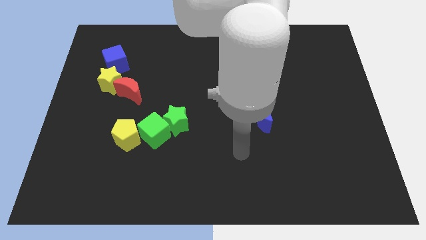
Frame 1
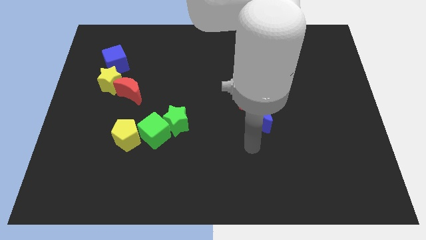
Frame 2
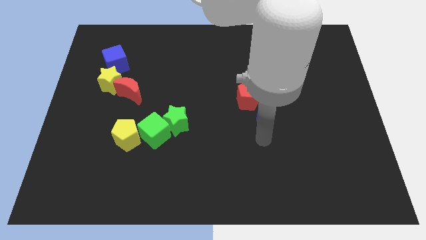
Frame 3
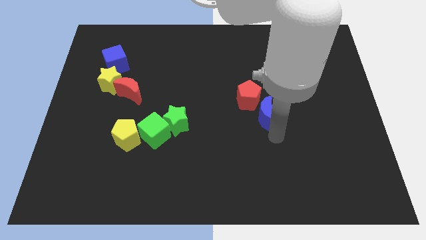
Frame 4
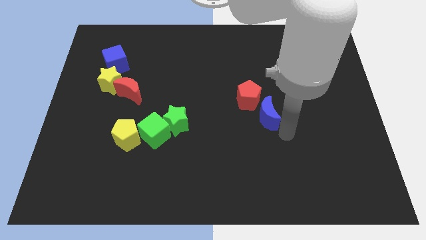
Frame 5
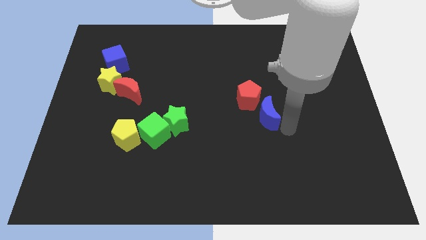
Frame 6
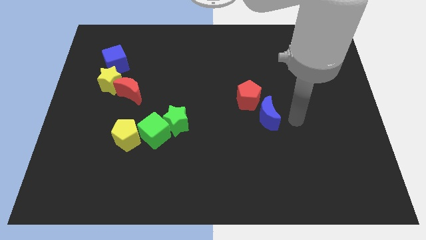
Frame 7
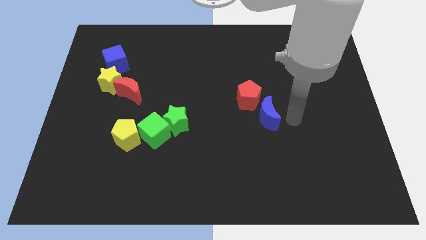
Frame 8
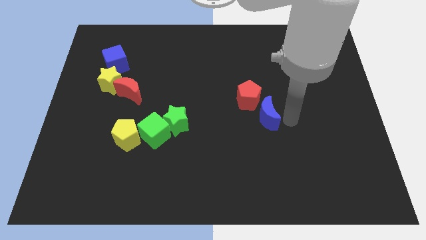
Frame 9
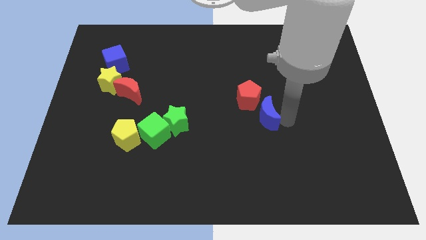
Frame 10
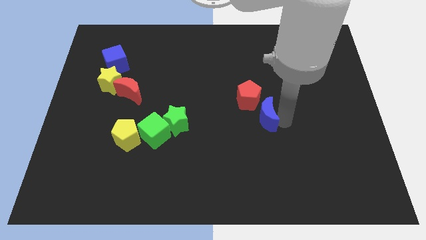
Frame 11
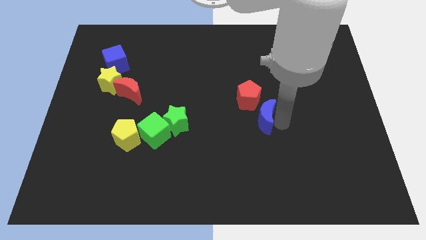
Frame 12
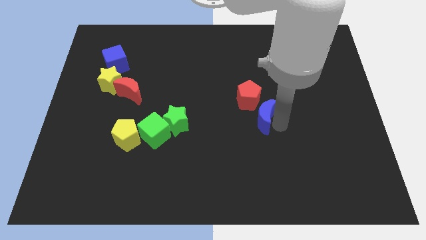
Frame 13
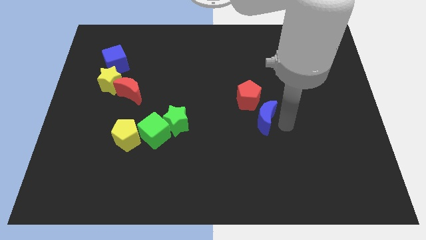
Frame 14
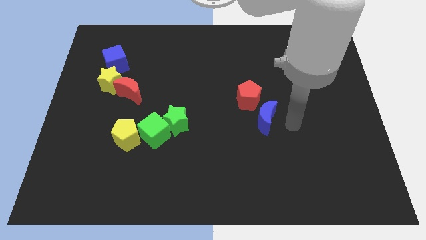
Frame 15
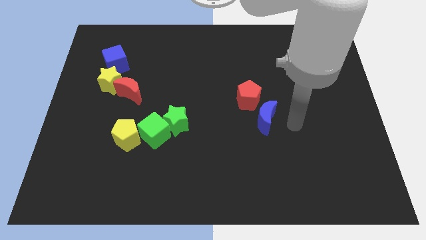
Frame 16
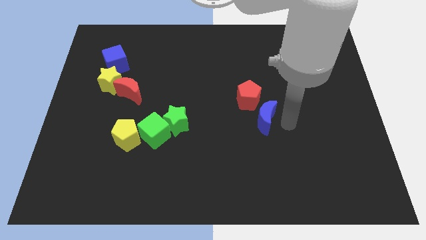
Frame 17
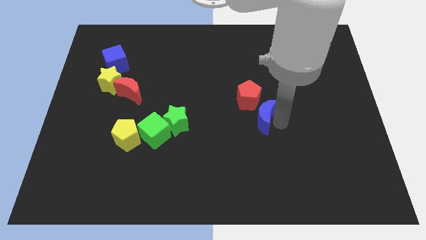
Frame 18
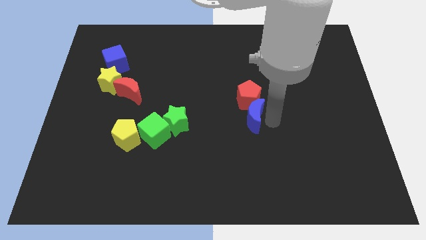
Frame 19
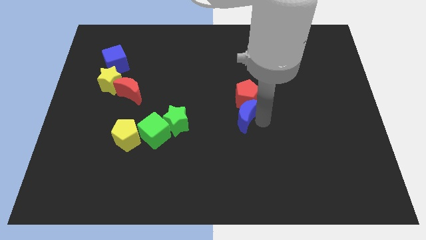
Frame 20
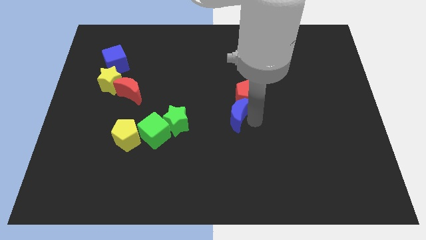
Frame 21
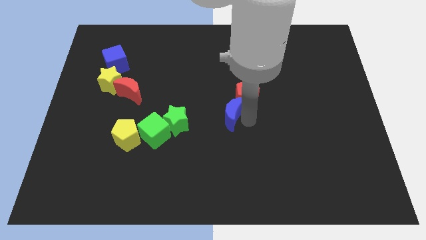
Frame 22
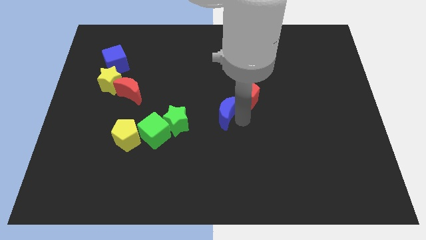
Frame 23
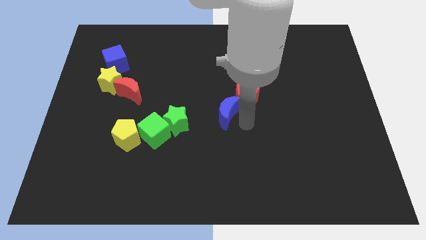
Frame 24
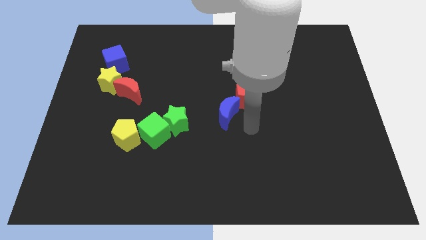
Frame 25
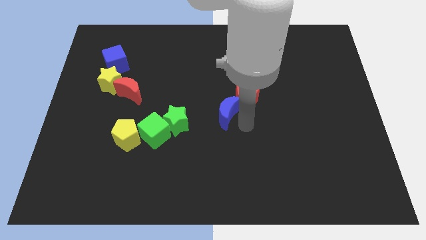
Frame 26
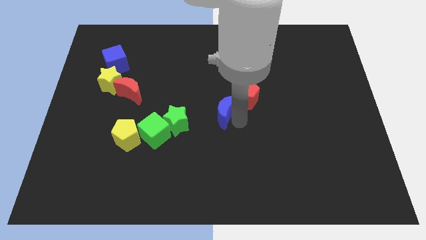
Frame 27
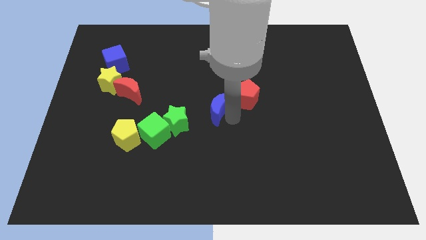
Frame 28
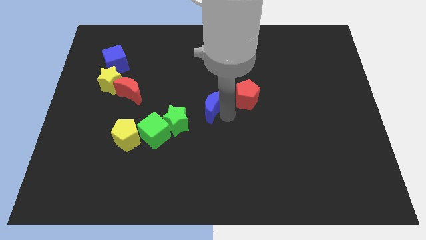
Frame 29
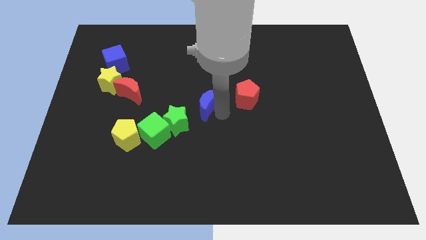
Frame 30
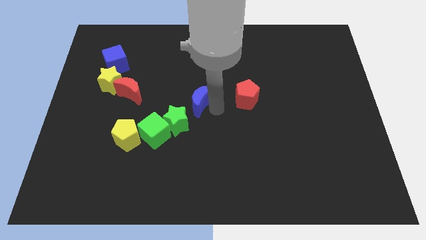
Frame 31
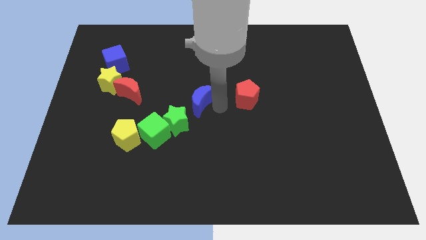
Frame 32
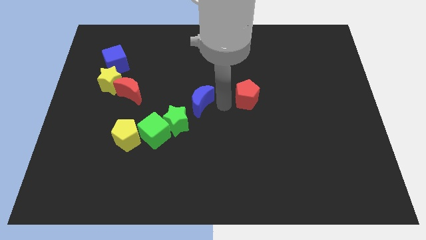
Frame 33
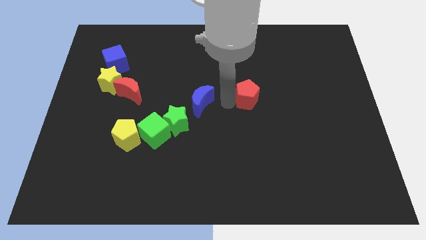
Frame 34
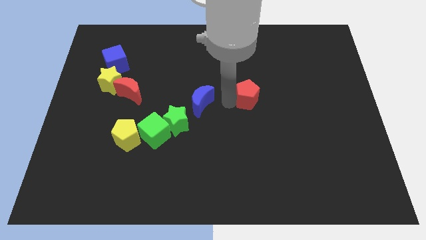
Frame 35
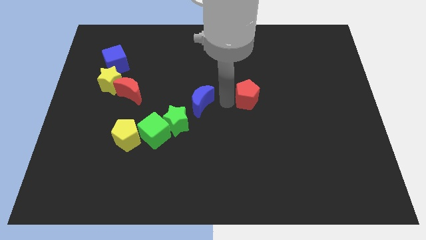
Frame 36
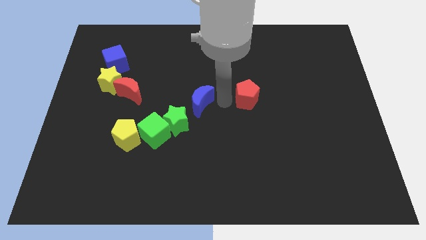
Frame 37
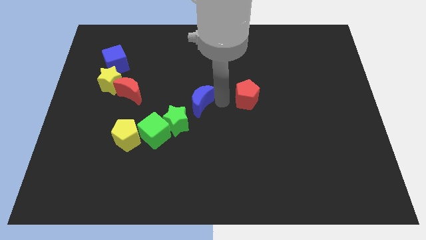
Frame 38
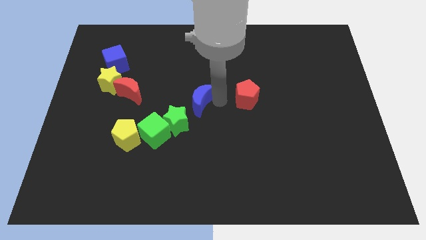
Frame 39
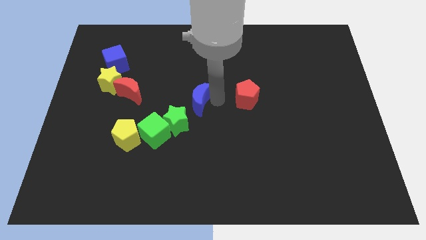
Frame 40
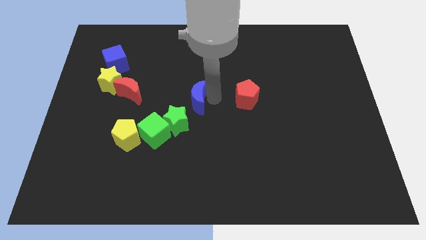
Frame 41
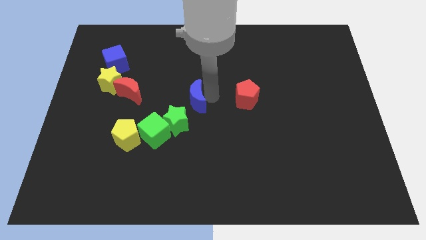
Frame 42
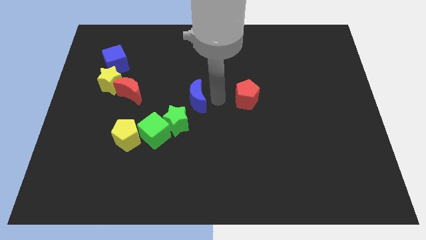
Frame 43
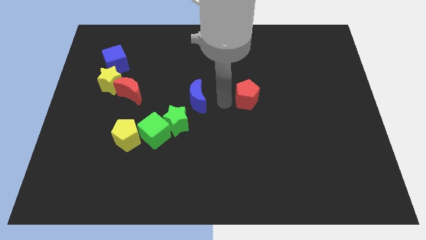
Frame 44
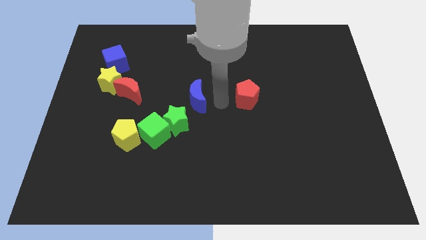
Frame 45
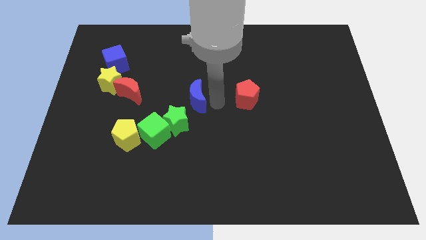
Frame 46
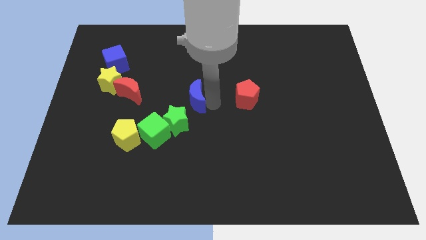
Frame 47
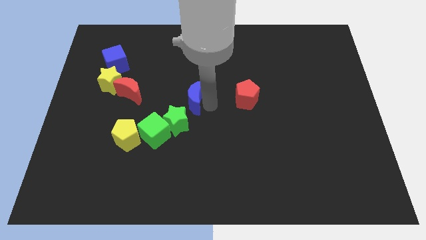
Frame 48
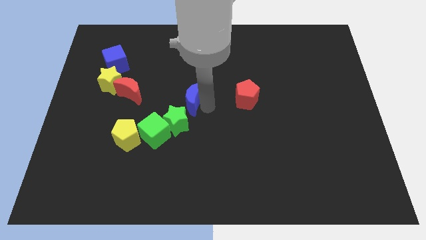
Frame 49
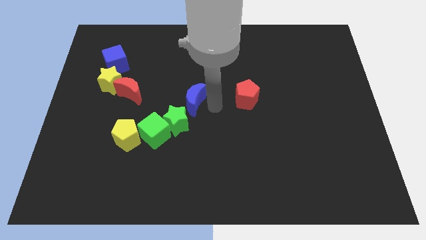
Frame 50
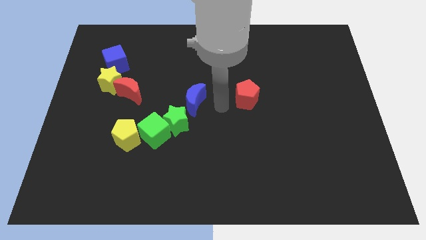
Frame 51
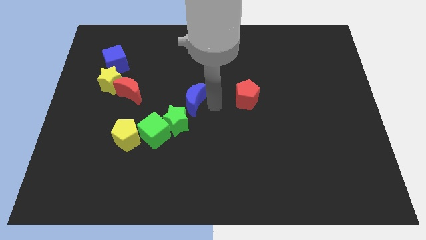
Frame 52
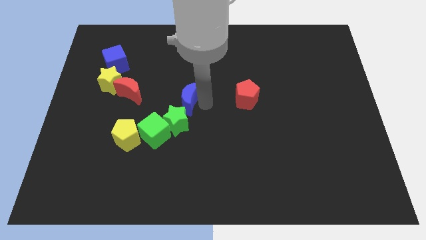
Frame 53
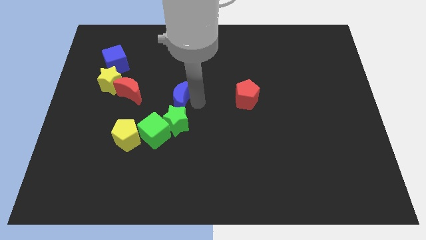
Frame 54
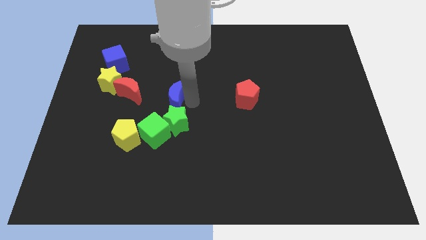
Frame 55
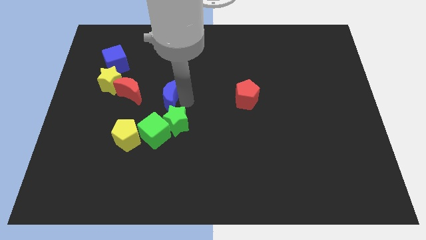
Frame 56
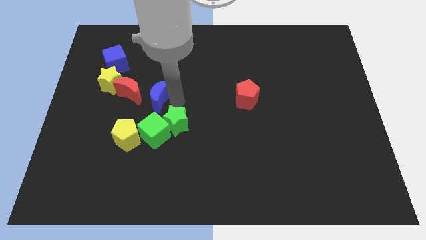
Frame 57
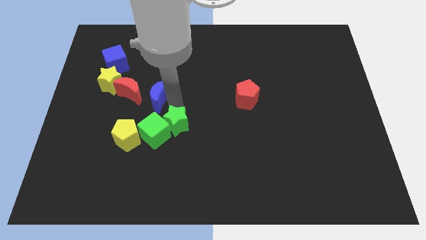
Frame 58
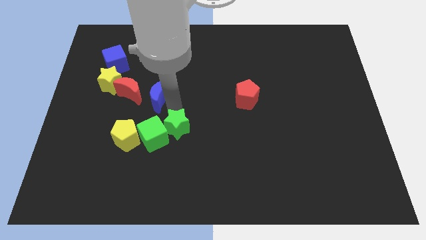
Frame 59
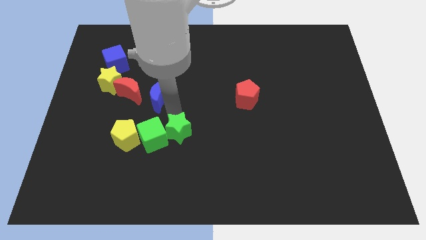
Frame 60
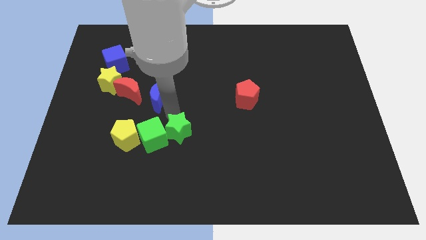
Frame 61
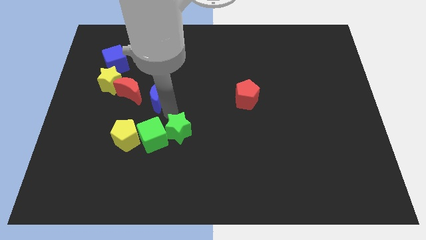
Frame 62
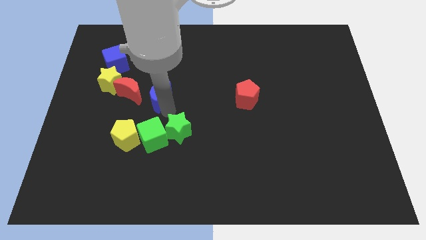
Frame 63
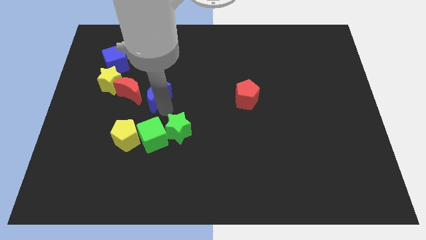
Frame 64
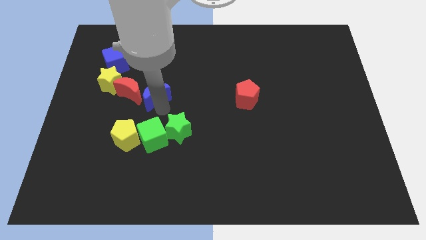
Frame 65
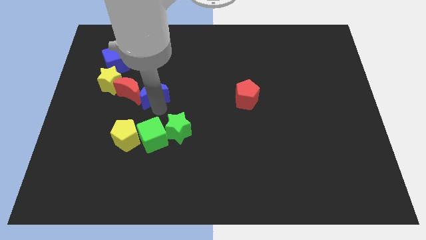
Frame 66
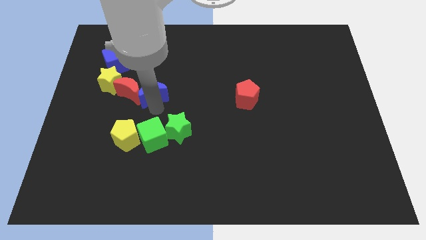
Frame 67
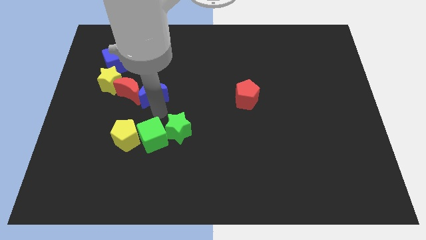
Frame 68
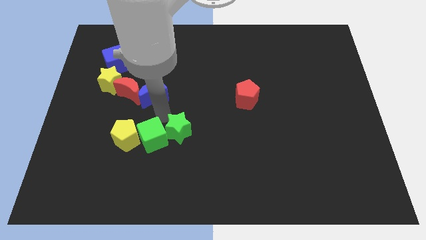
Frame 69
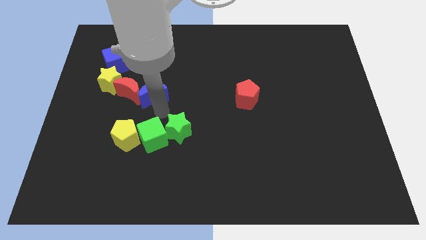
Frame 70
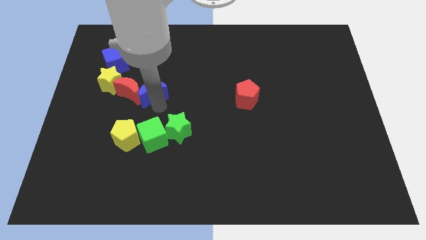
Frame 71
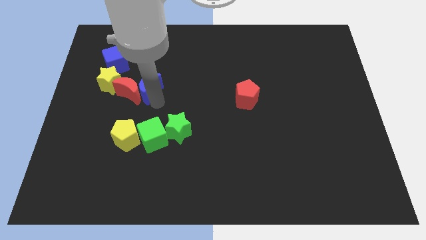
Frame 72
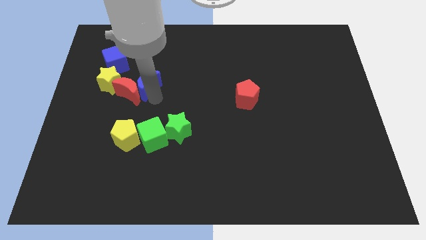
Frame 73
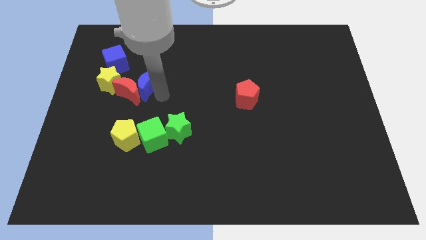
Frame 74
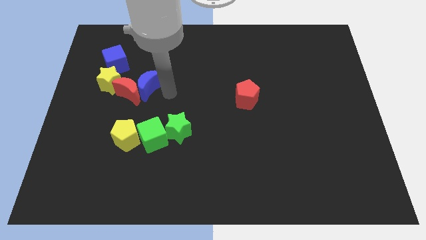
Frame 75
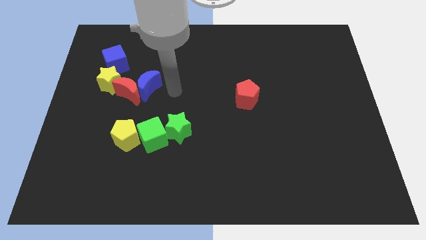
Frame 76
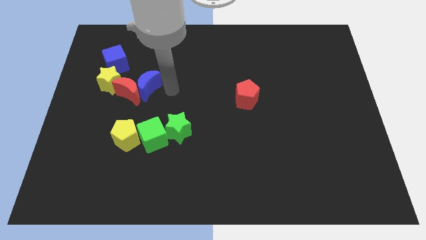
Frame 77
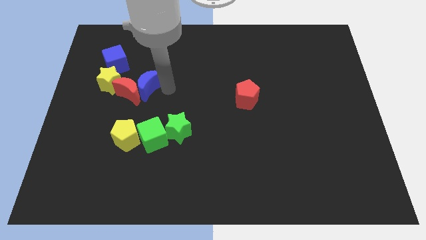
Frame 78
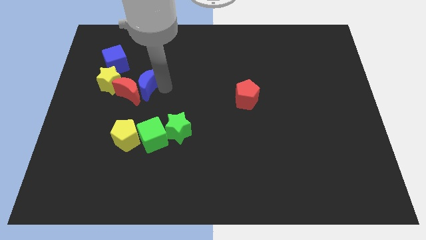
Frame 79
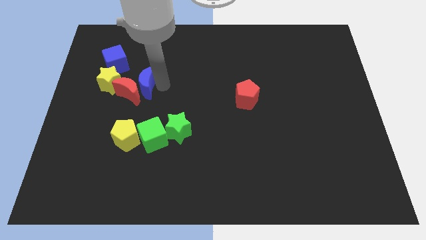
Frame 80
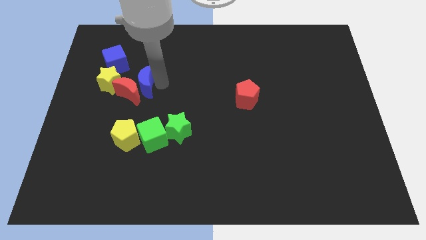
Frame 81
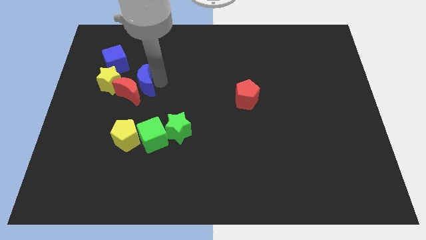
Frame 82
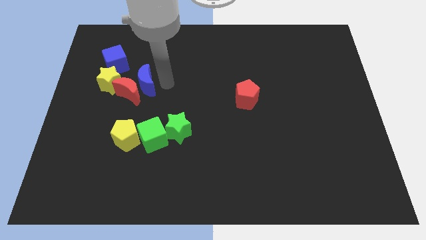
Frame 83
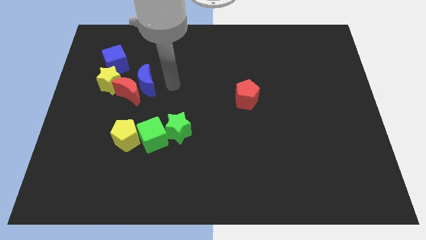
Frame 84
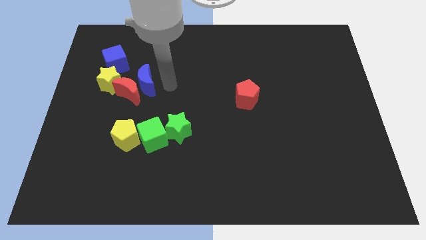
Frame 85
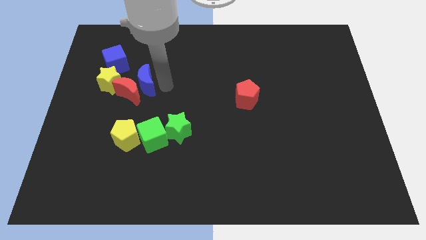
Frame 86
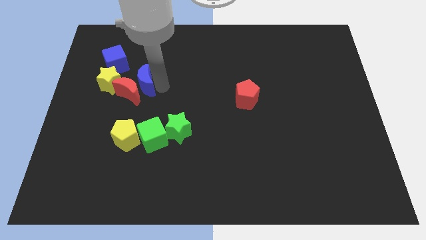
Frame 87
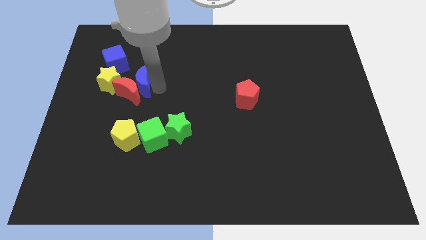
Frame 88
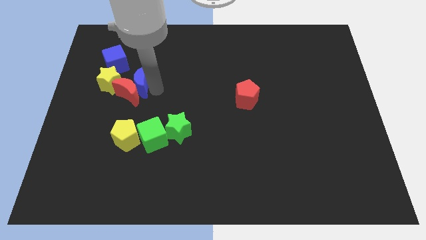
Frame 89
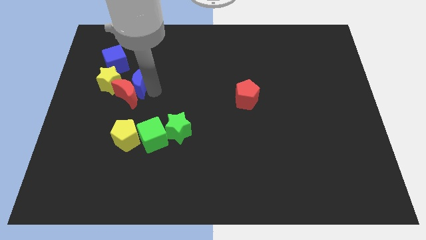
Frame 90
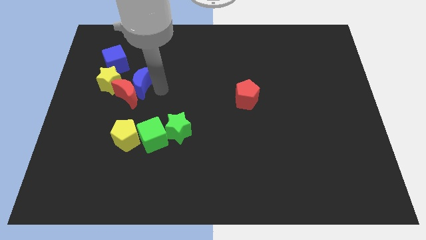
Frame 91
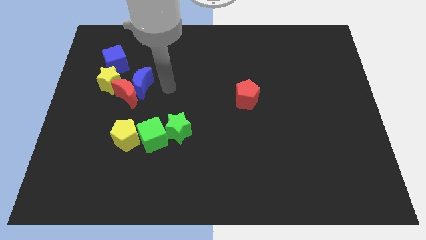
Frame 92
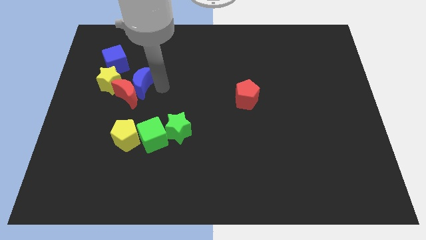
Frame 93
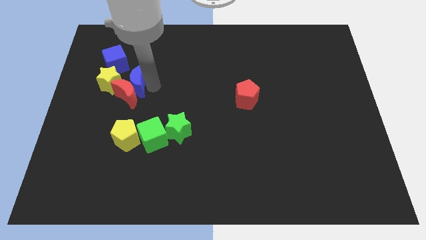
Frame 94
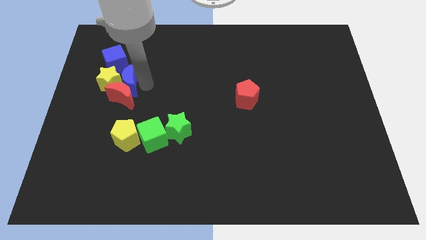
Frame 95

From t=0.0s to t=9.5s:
put the blue moon to the yellow star
